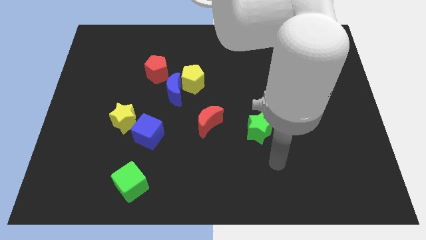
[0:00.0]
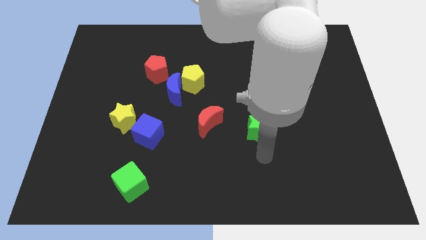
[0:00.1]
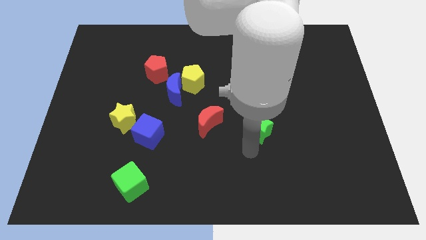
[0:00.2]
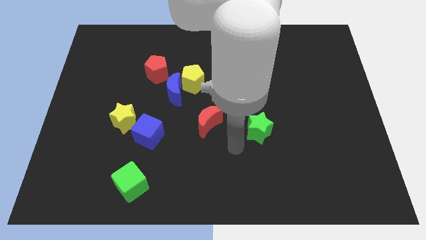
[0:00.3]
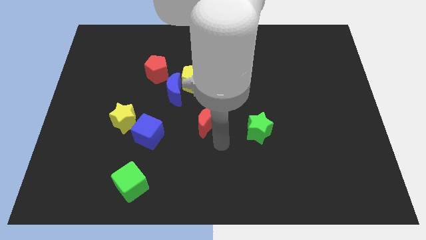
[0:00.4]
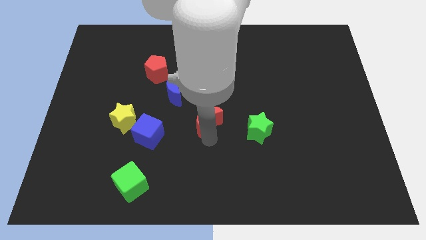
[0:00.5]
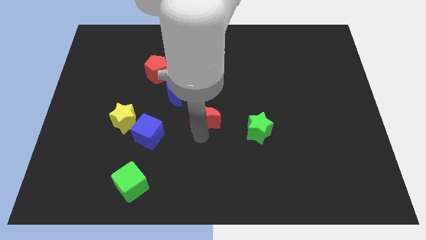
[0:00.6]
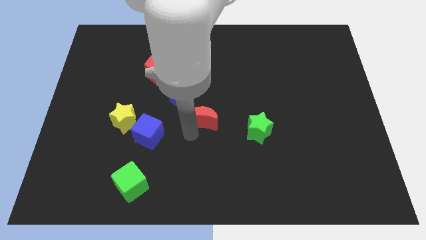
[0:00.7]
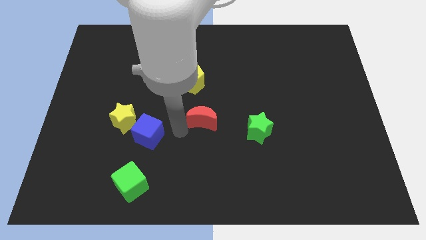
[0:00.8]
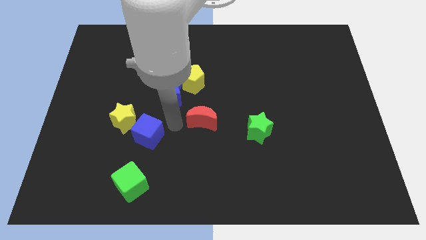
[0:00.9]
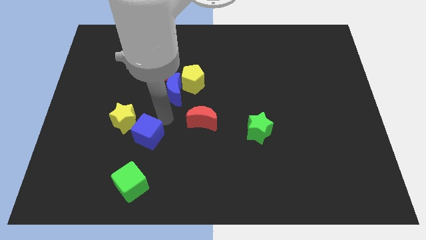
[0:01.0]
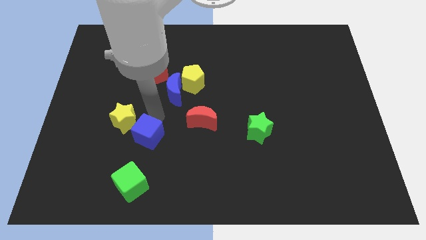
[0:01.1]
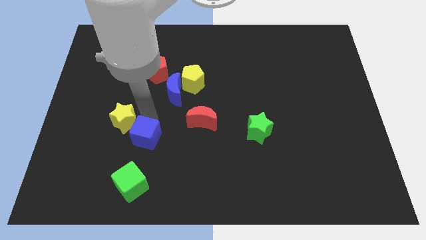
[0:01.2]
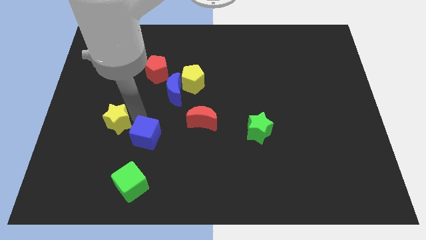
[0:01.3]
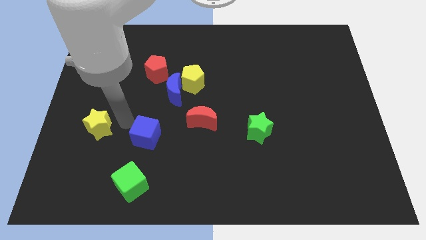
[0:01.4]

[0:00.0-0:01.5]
move the blue cube away from the yellow star

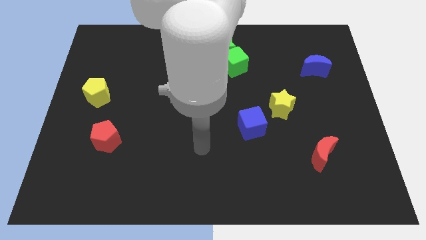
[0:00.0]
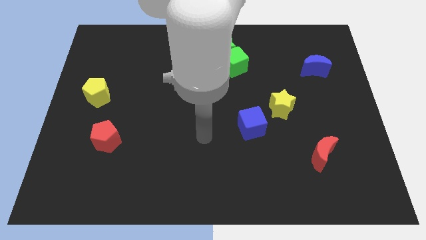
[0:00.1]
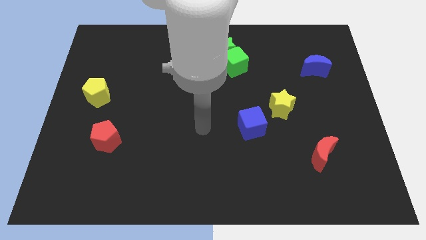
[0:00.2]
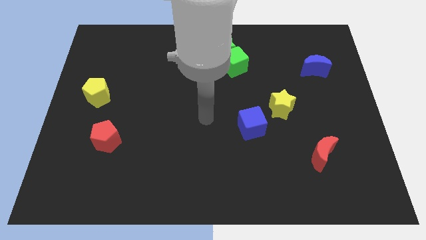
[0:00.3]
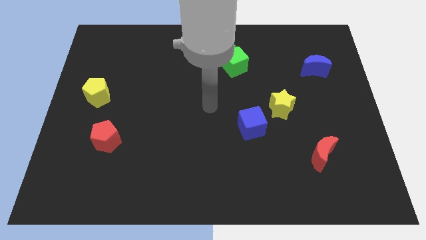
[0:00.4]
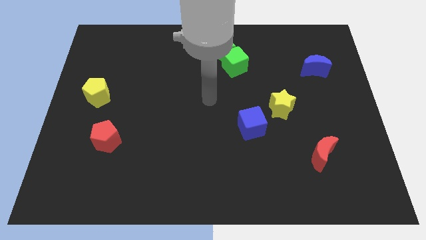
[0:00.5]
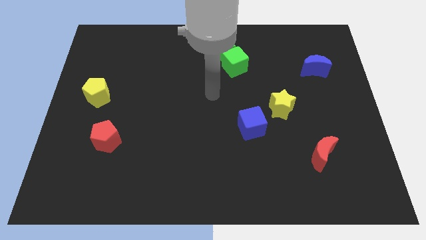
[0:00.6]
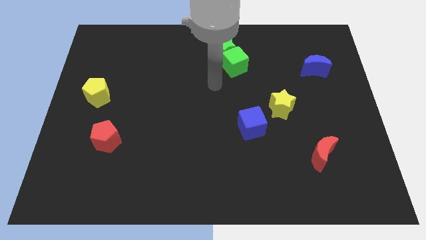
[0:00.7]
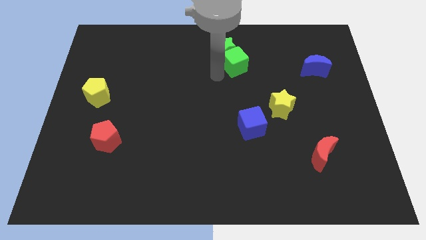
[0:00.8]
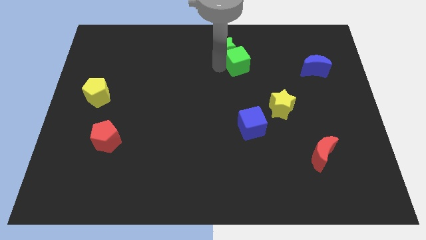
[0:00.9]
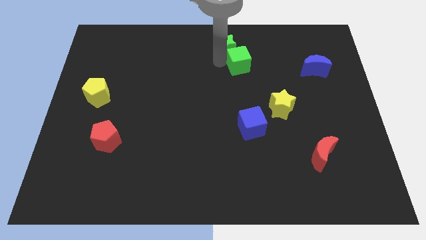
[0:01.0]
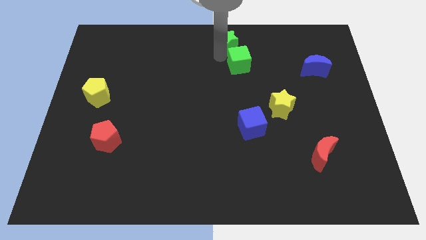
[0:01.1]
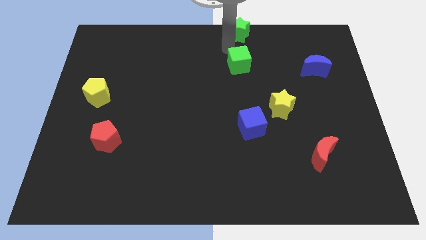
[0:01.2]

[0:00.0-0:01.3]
pull the green cube apart from the green star

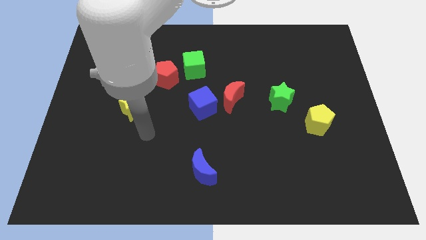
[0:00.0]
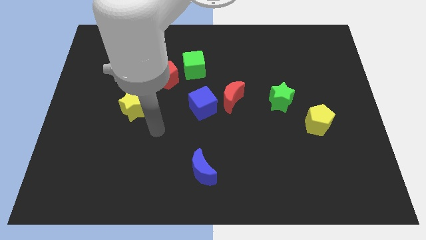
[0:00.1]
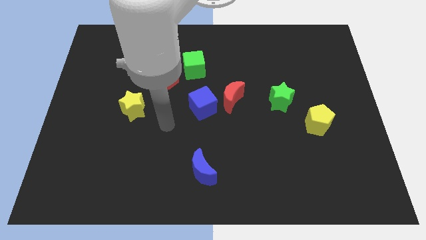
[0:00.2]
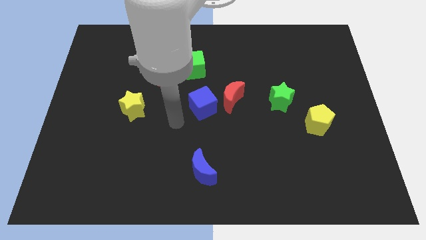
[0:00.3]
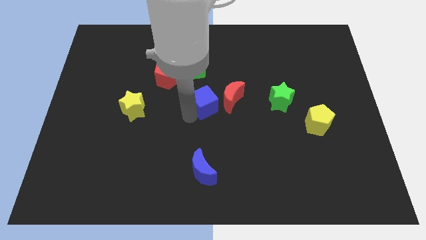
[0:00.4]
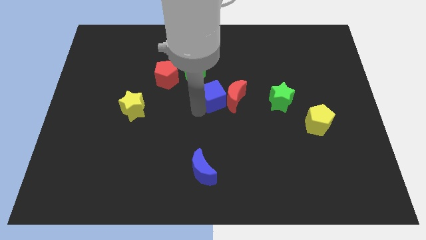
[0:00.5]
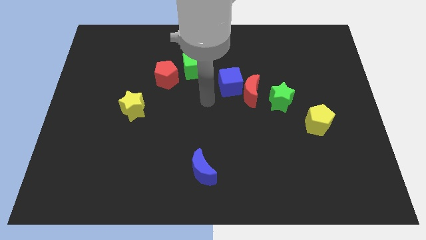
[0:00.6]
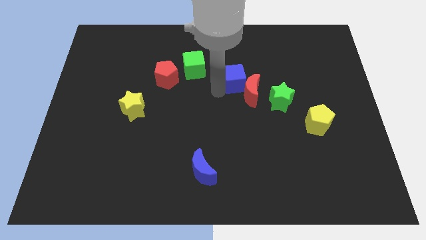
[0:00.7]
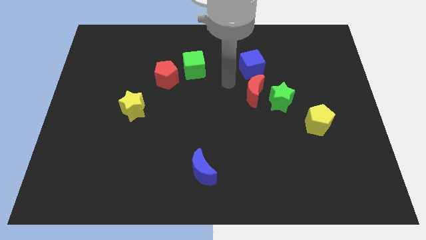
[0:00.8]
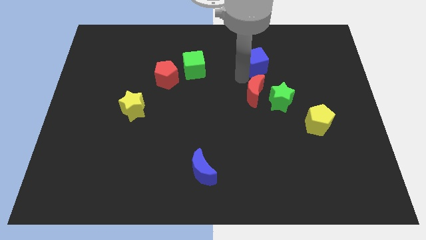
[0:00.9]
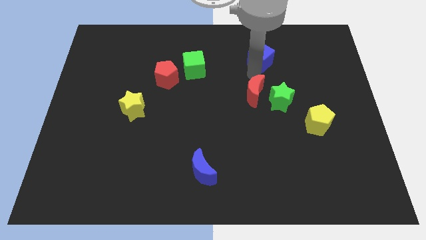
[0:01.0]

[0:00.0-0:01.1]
separate the red moon from the blue cube

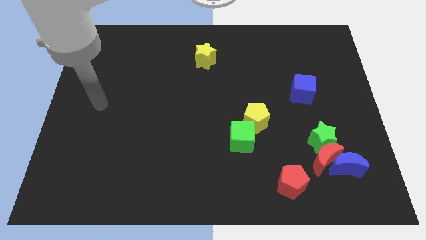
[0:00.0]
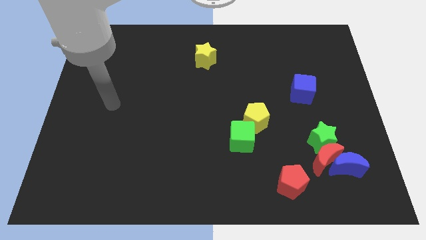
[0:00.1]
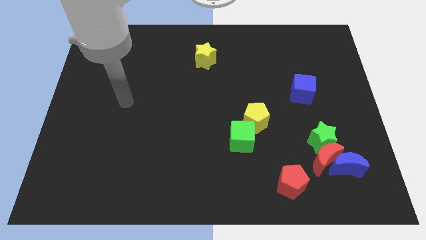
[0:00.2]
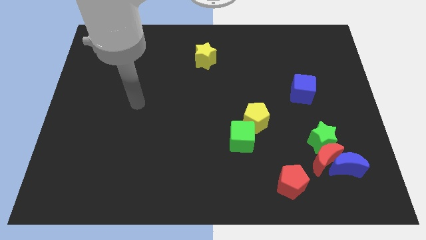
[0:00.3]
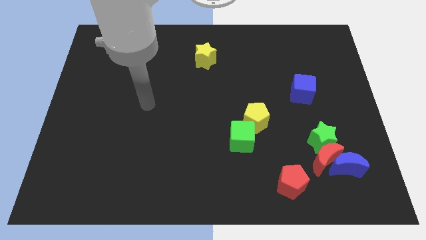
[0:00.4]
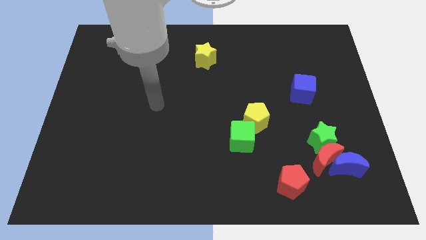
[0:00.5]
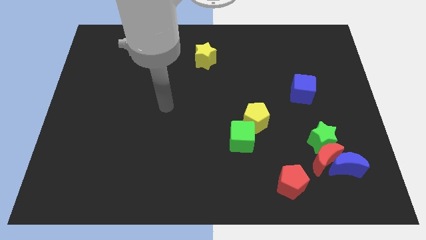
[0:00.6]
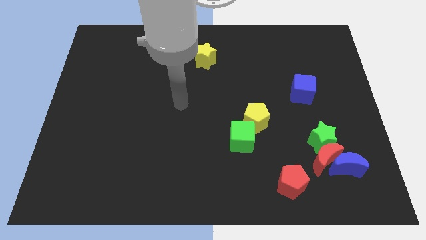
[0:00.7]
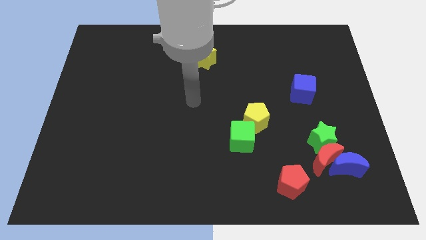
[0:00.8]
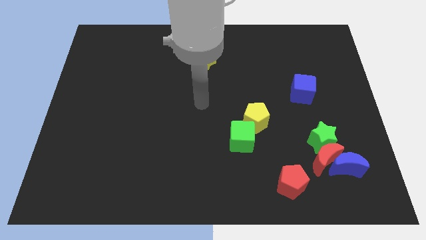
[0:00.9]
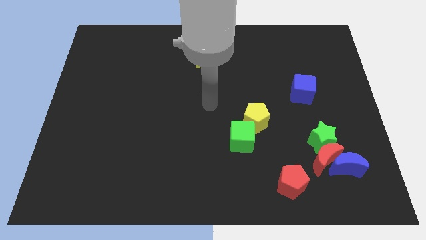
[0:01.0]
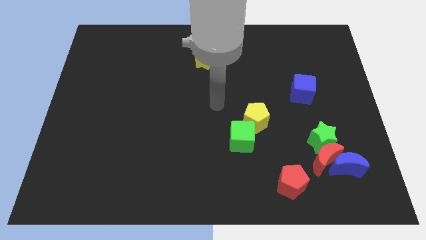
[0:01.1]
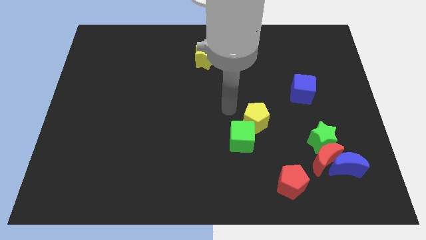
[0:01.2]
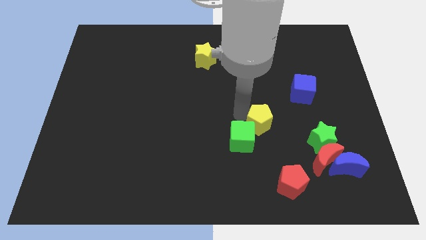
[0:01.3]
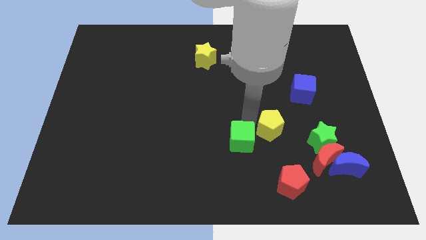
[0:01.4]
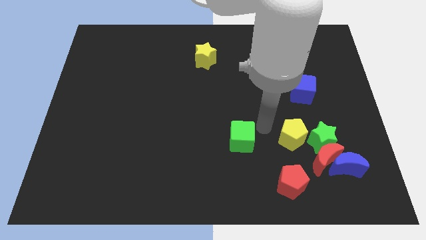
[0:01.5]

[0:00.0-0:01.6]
pull the green cube apart from the yellow pentagon

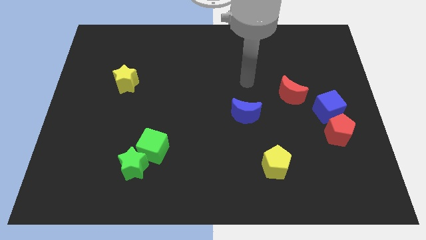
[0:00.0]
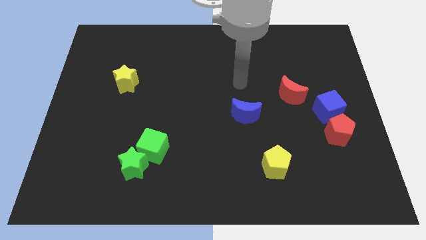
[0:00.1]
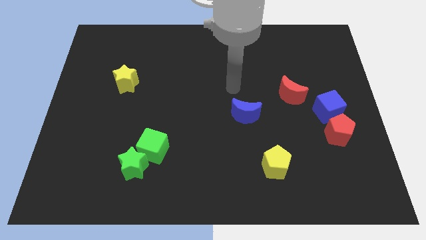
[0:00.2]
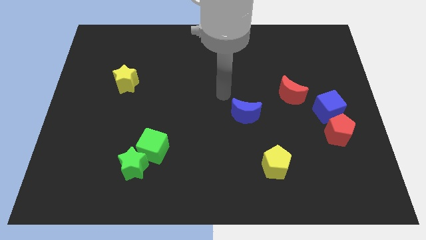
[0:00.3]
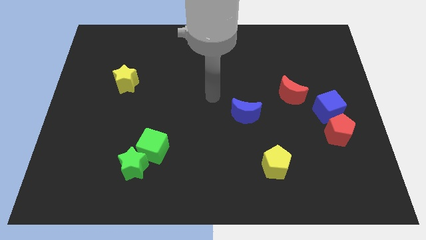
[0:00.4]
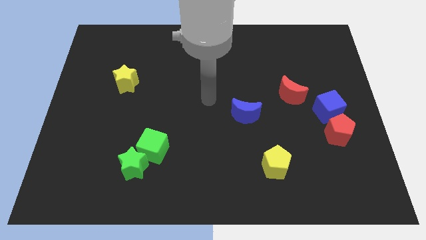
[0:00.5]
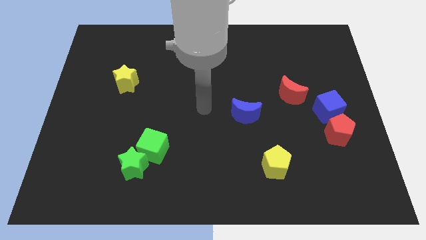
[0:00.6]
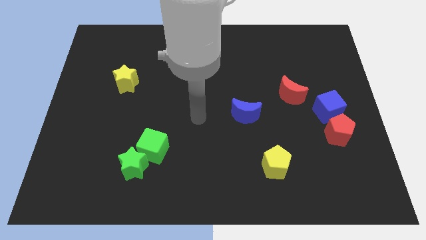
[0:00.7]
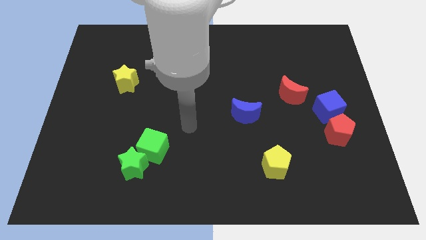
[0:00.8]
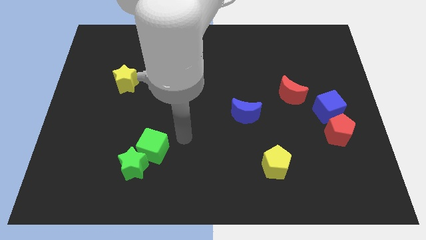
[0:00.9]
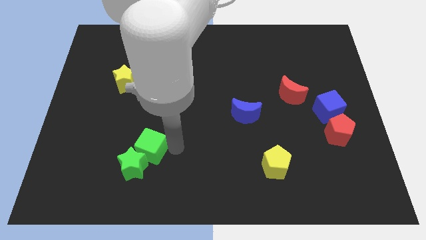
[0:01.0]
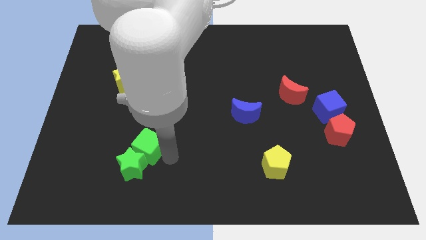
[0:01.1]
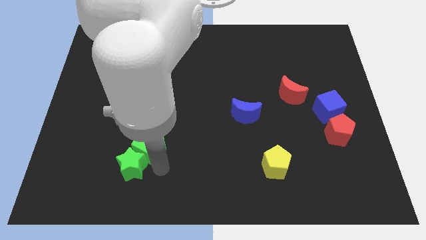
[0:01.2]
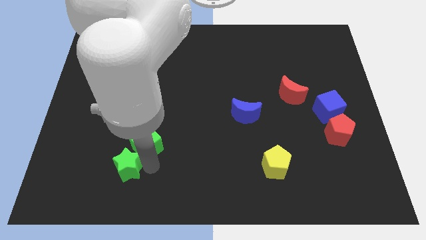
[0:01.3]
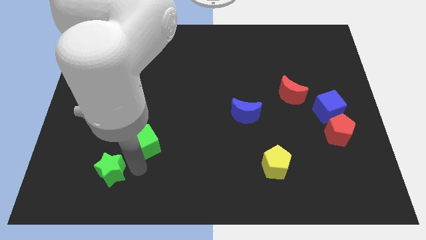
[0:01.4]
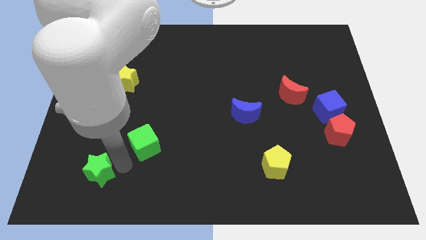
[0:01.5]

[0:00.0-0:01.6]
move the green cube away from the green star

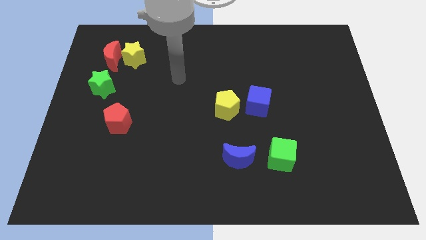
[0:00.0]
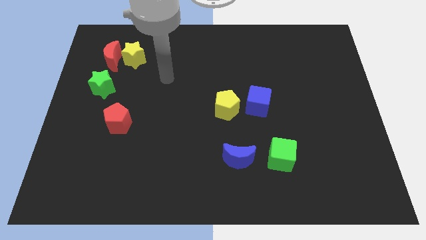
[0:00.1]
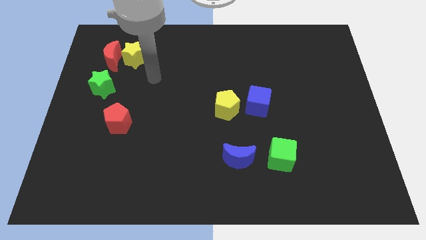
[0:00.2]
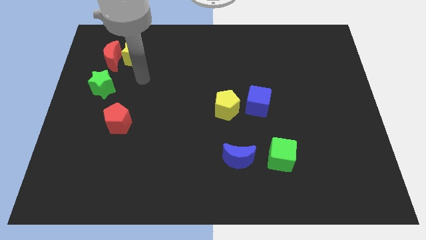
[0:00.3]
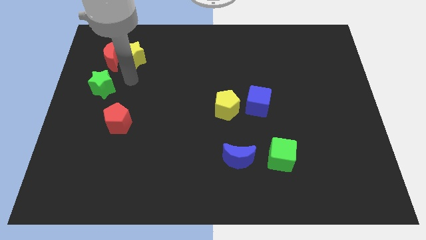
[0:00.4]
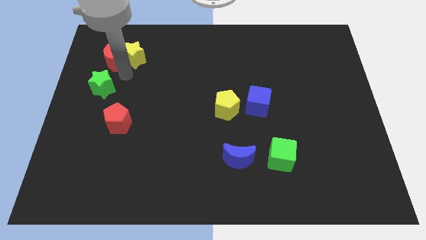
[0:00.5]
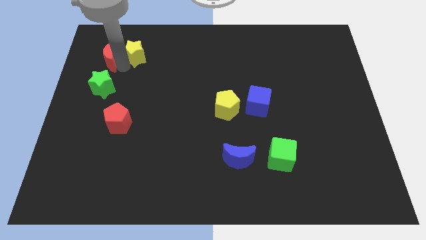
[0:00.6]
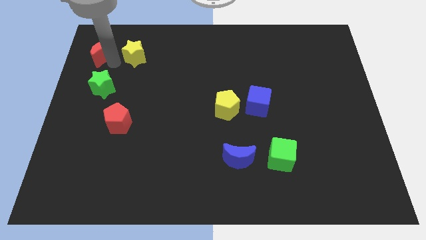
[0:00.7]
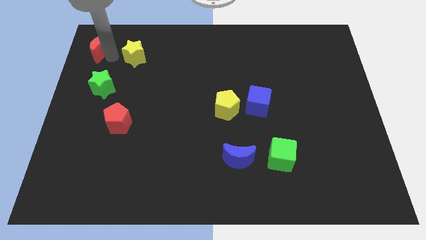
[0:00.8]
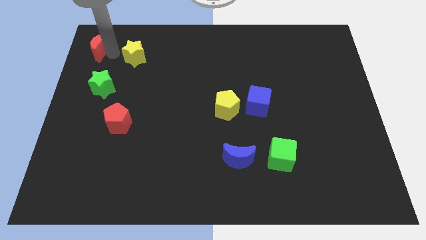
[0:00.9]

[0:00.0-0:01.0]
pull the yellow star apart from the red moon

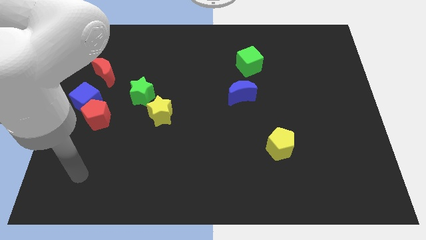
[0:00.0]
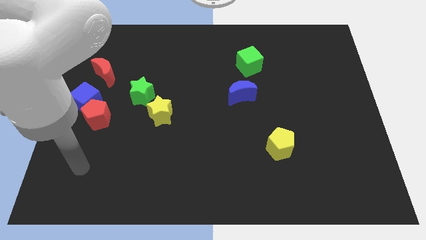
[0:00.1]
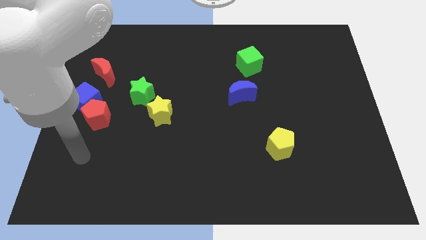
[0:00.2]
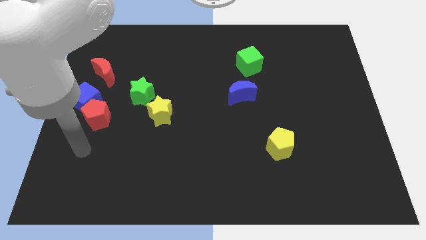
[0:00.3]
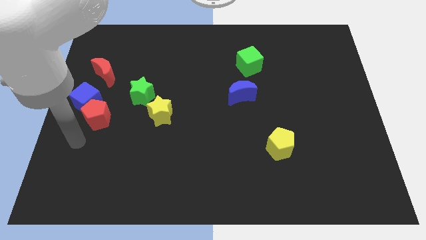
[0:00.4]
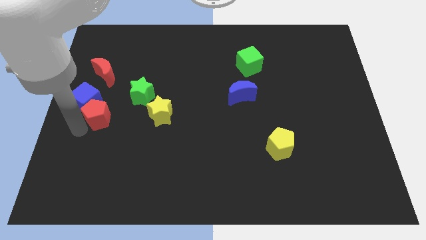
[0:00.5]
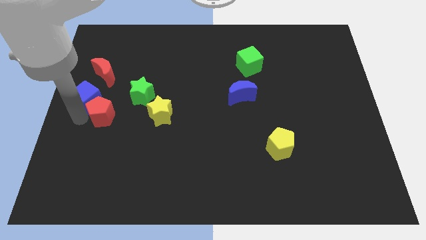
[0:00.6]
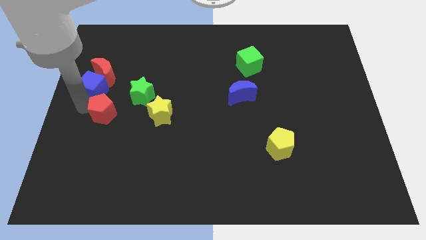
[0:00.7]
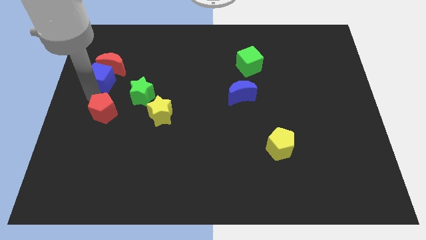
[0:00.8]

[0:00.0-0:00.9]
separate the red pentagon from the blue cube

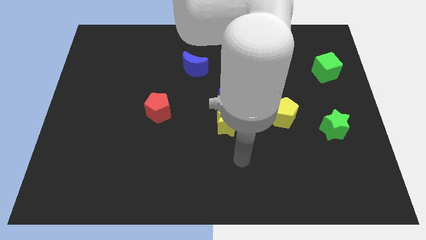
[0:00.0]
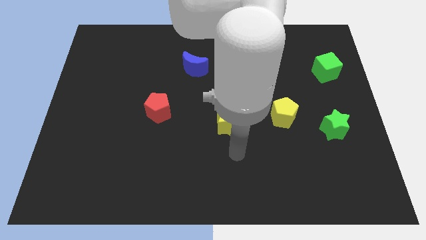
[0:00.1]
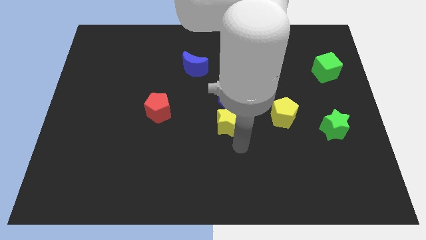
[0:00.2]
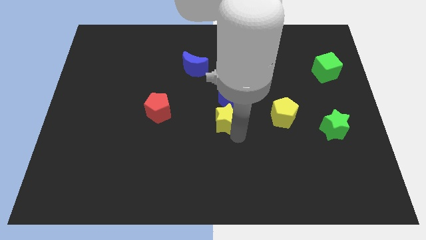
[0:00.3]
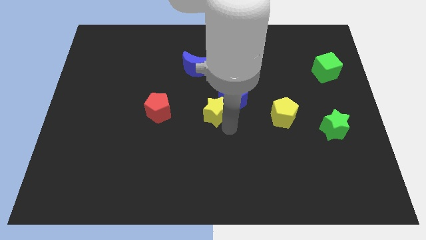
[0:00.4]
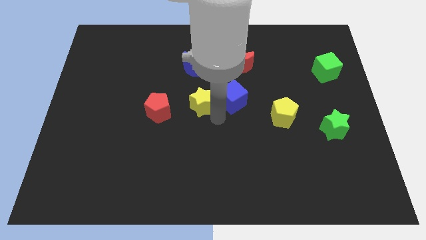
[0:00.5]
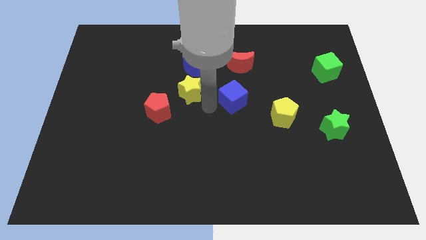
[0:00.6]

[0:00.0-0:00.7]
separate the blue cube from the yellow star
